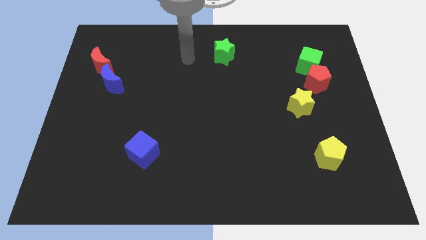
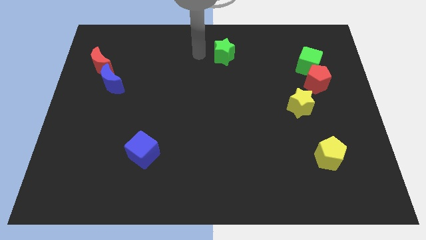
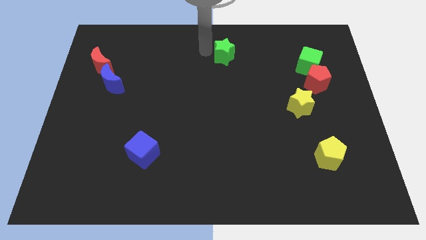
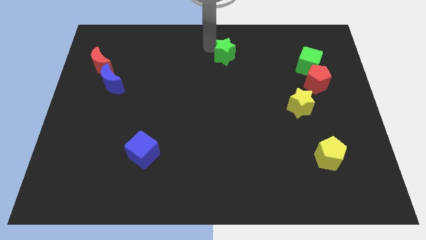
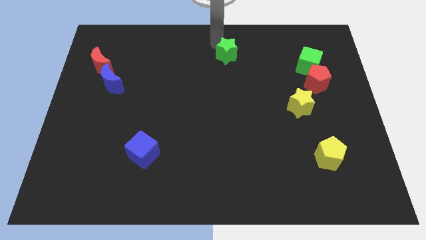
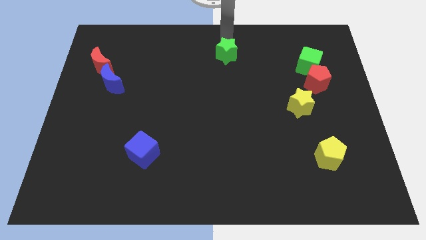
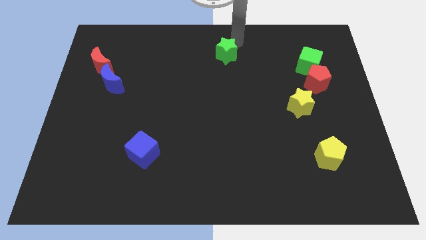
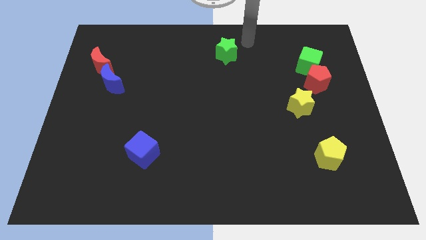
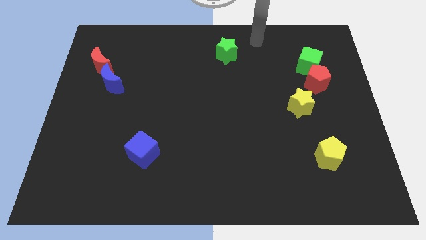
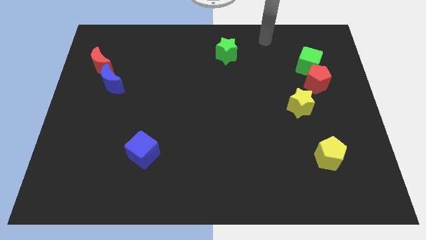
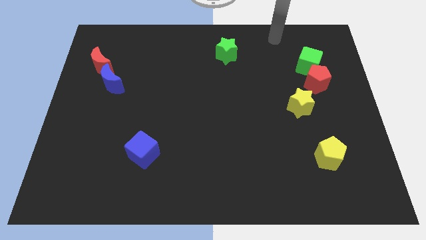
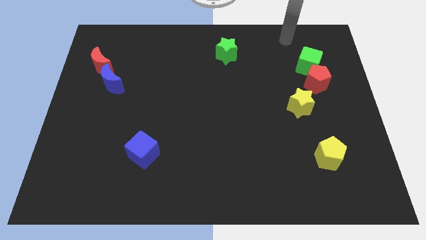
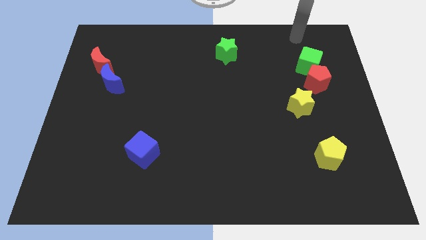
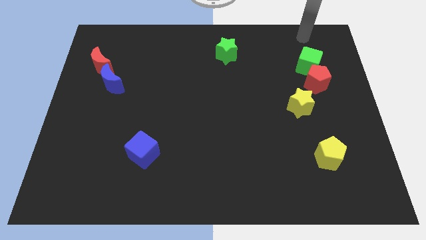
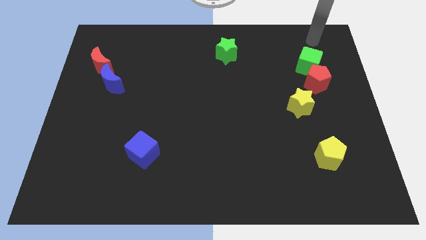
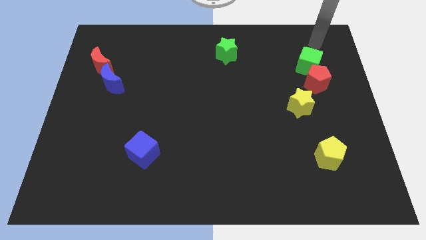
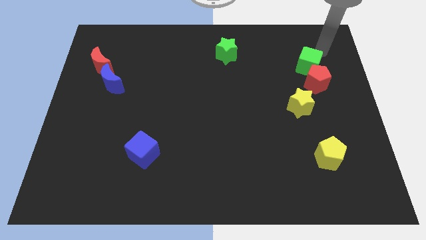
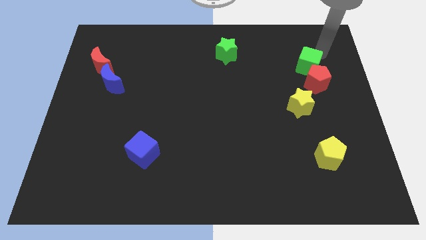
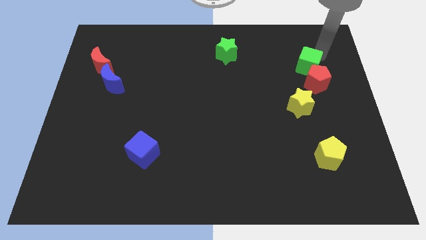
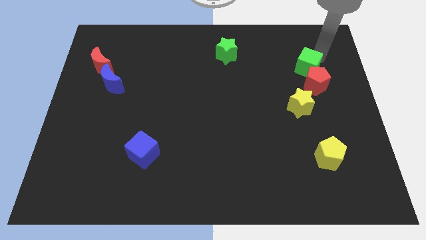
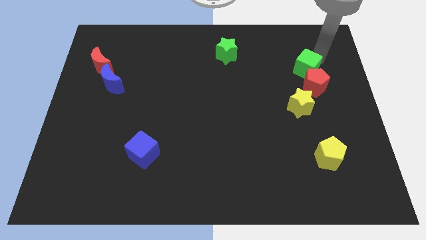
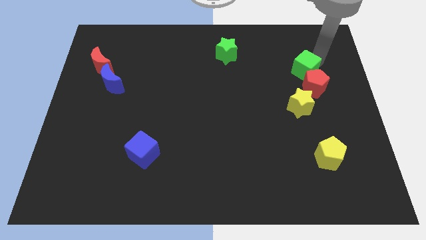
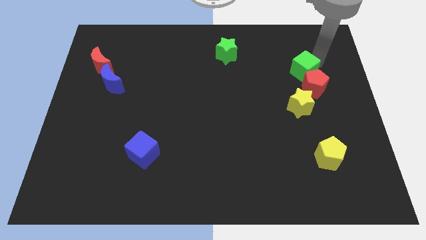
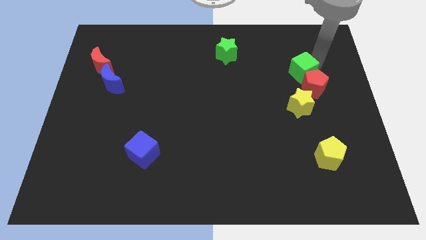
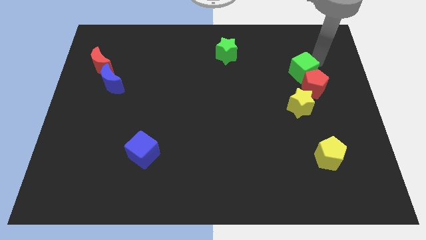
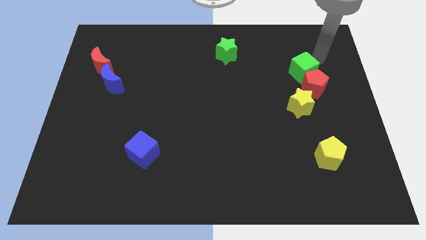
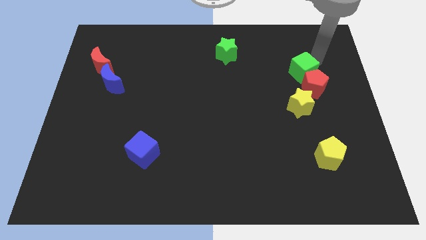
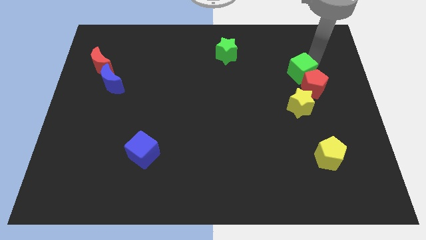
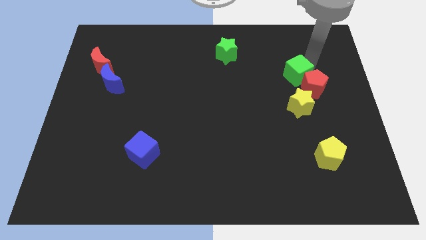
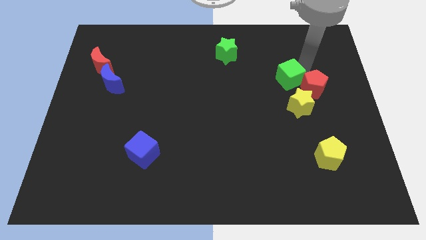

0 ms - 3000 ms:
slightly push the green cube diagonally down and left

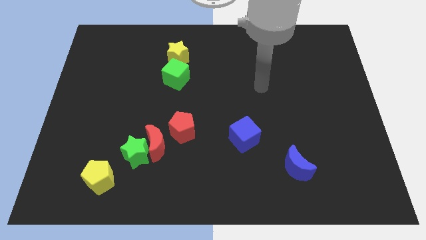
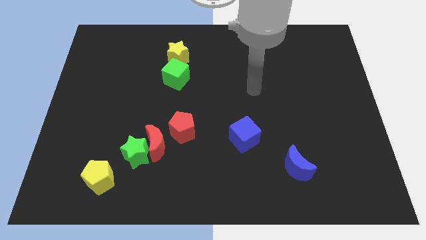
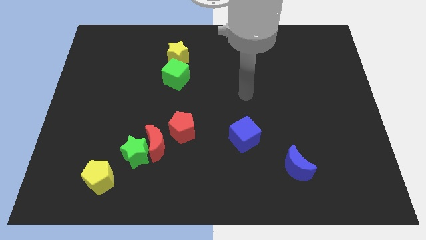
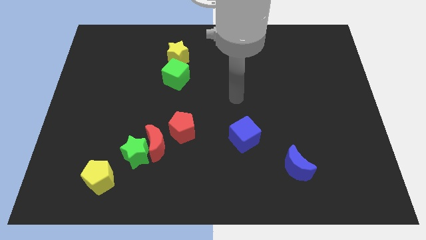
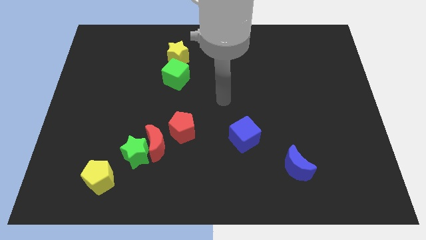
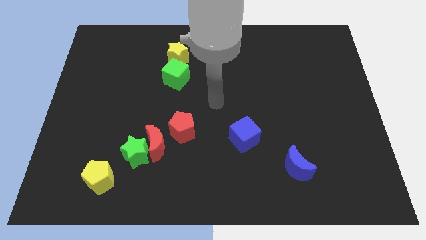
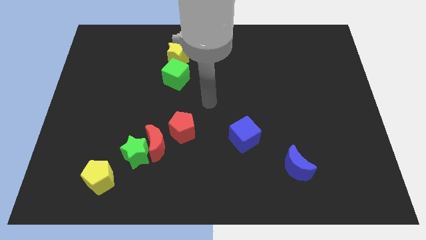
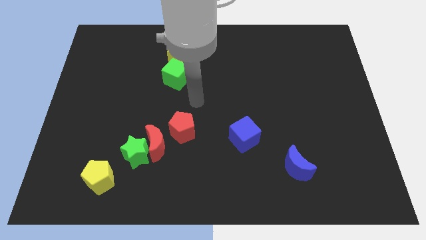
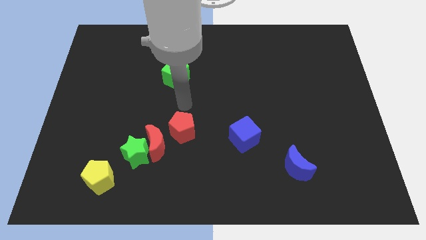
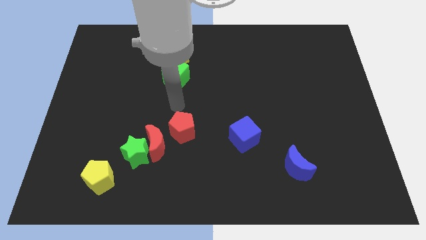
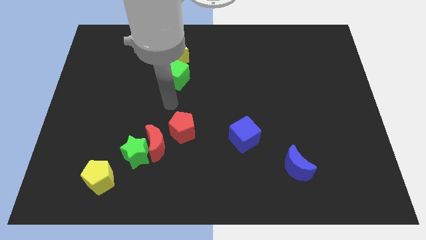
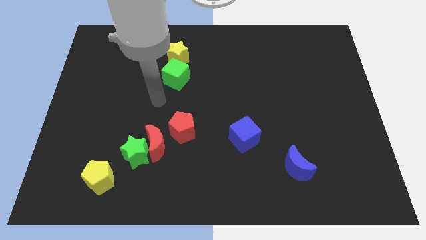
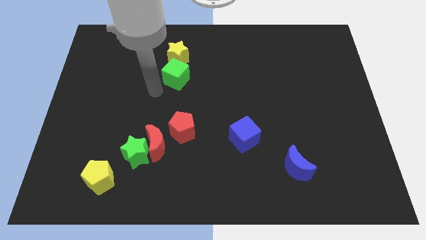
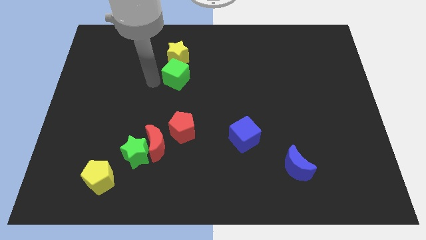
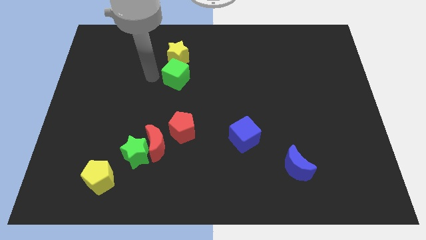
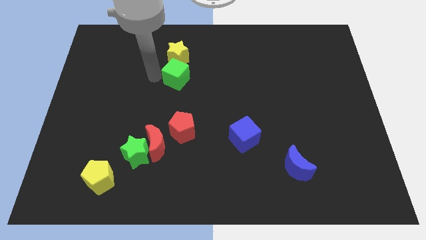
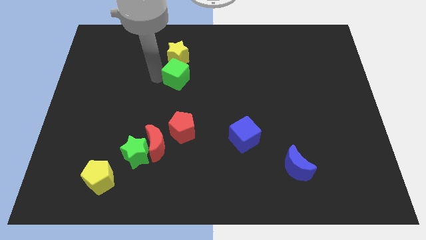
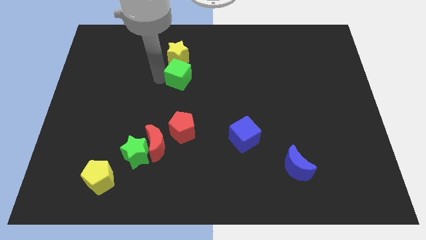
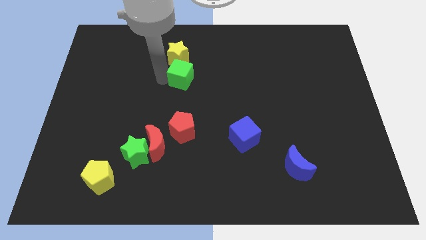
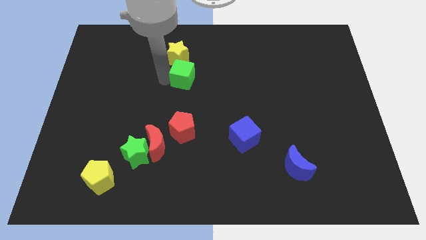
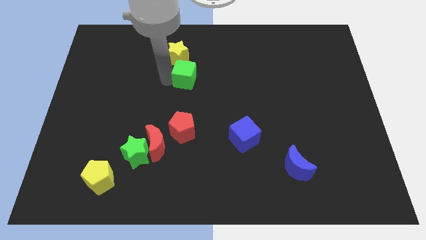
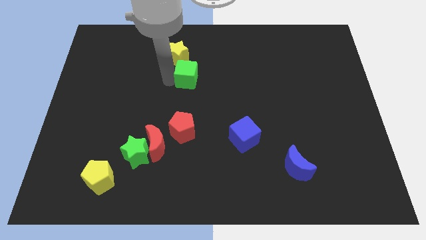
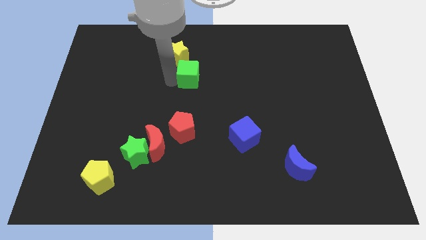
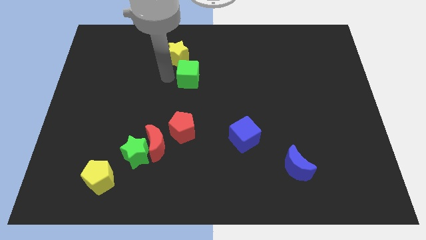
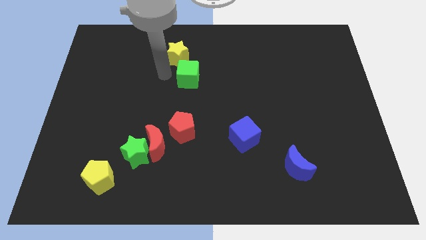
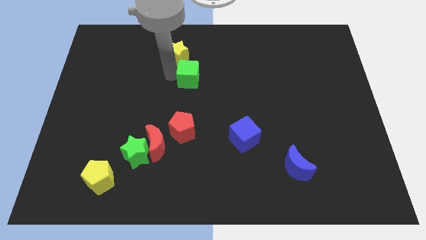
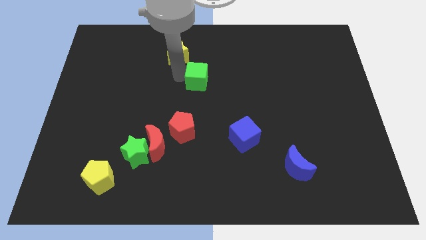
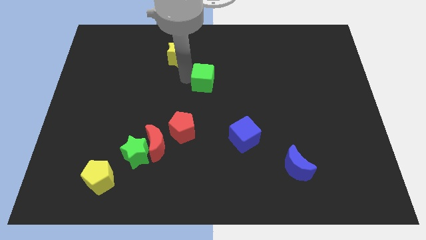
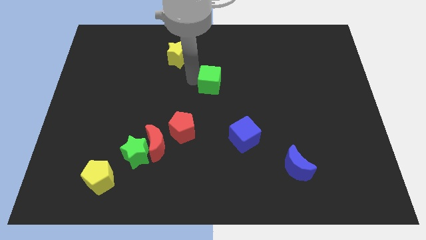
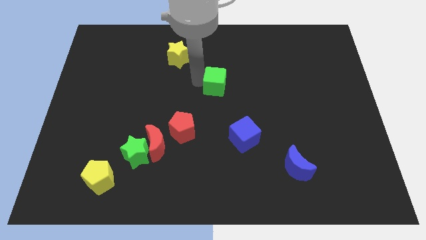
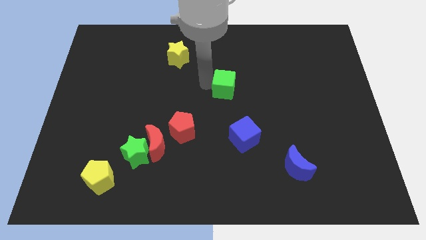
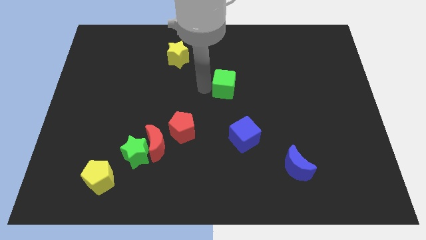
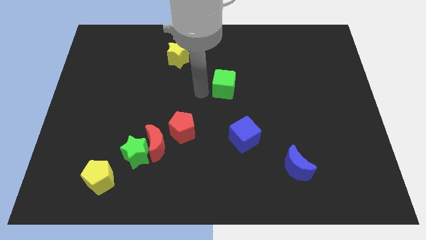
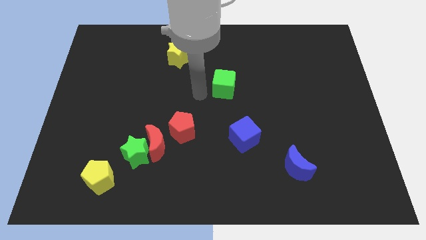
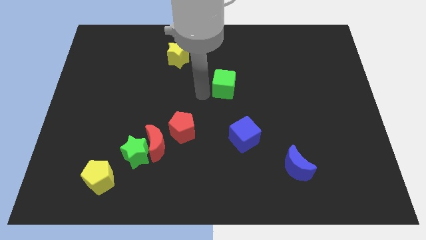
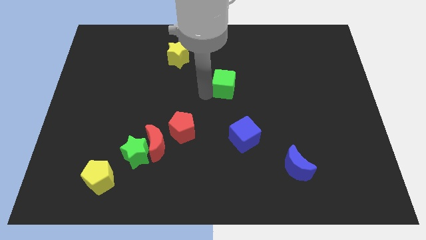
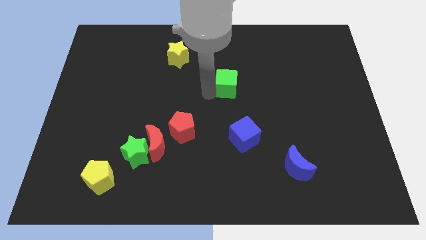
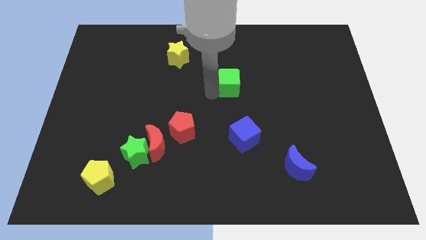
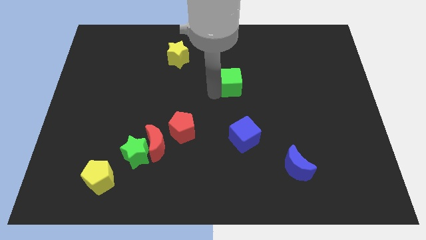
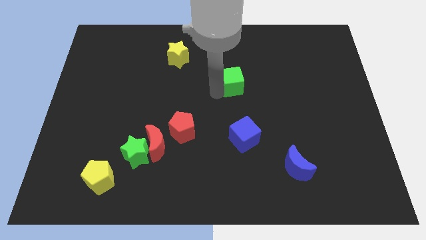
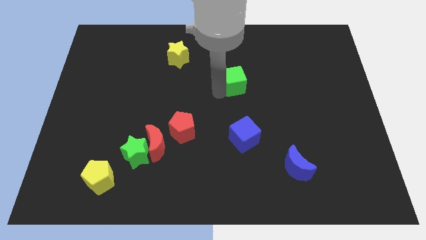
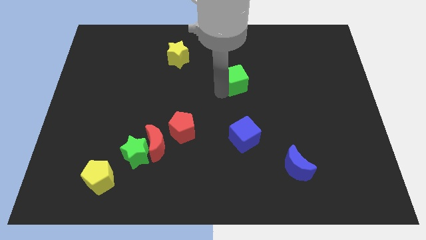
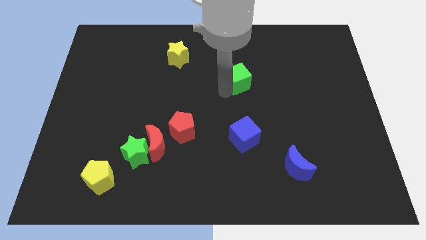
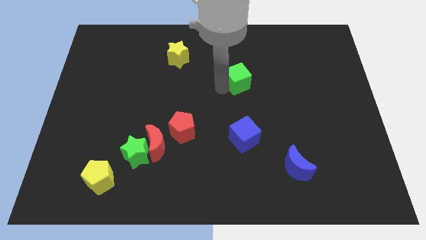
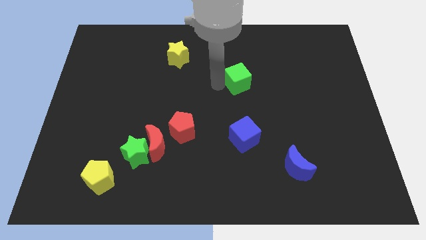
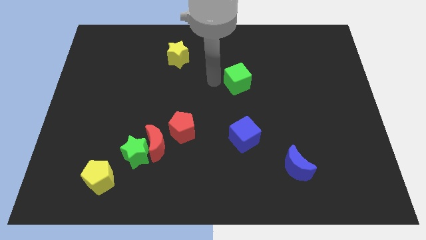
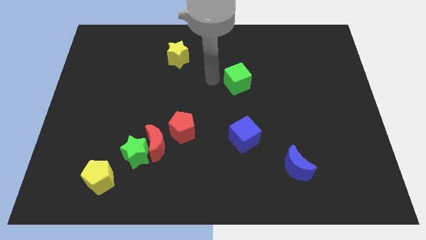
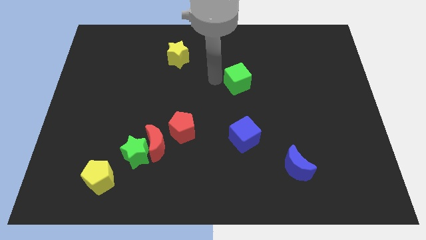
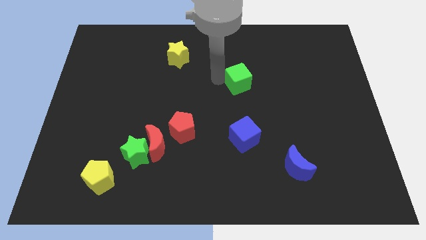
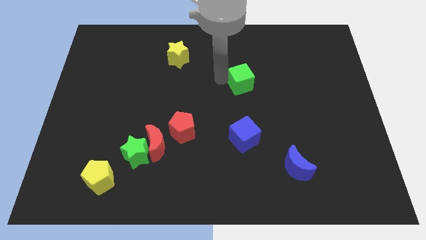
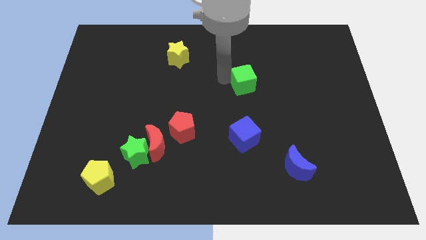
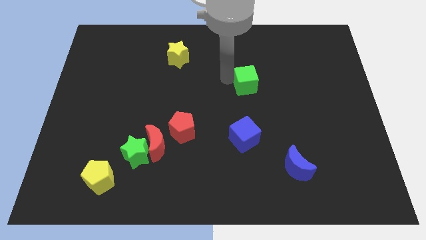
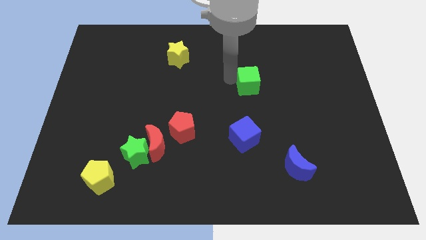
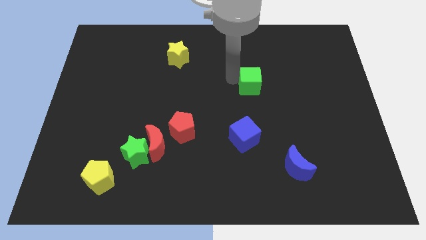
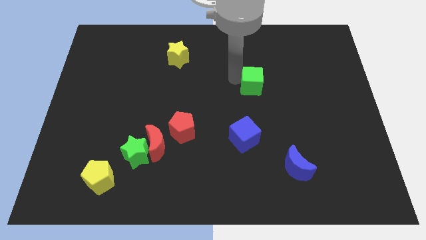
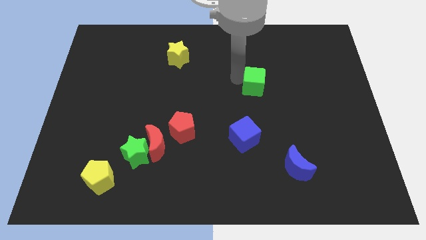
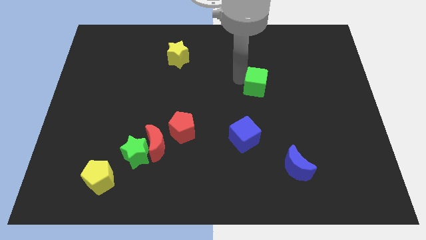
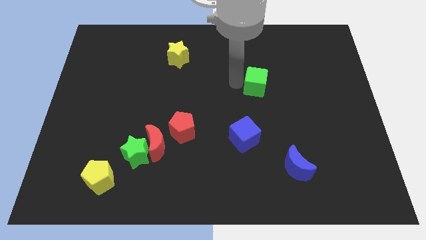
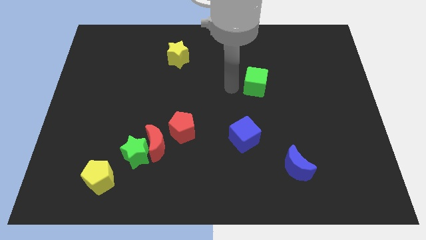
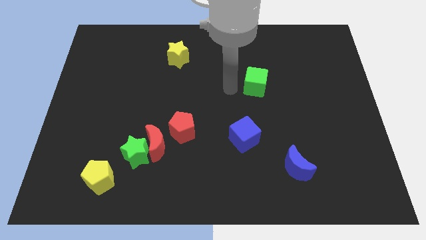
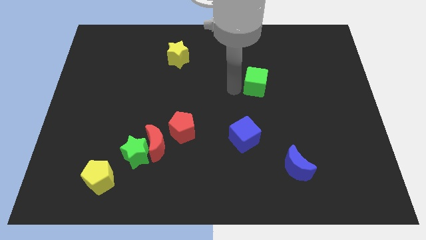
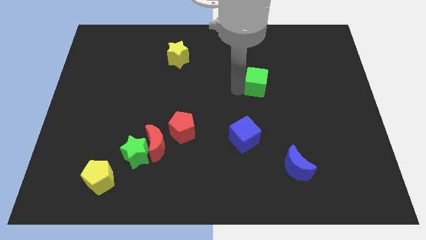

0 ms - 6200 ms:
move the green cube right
